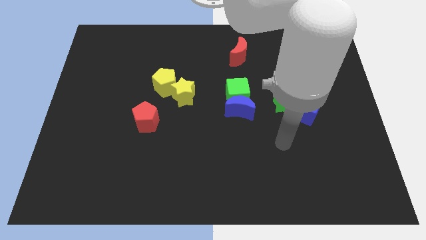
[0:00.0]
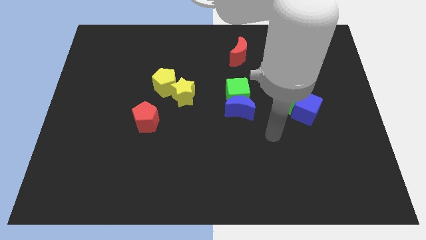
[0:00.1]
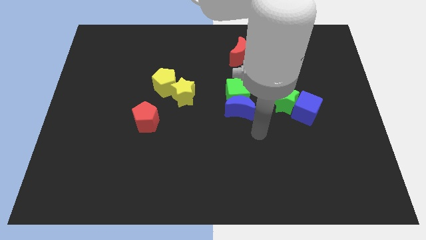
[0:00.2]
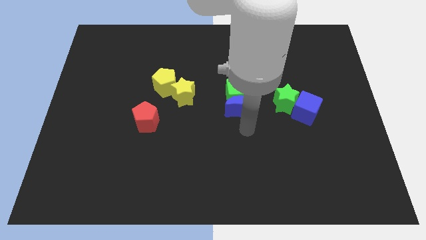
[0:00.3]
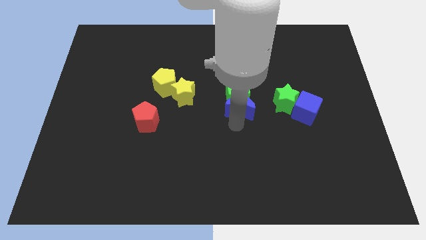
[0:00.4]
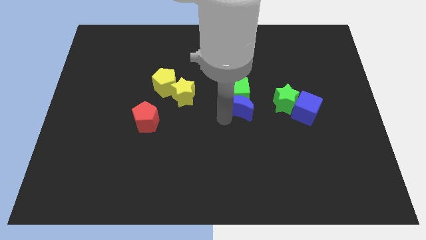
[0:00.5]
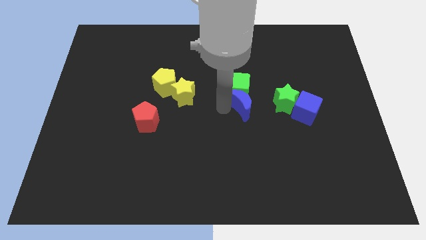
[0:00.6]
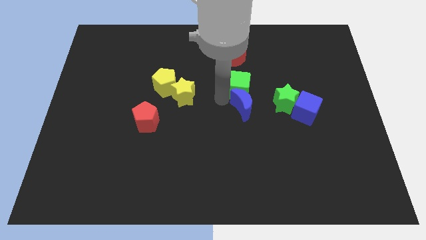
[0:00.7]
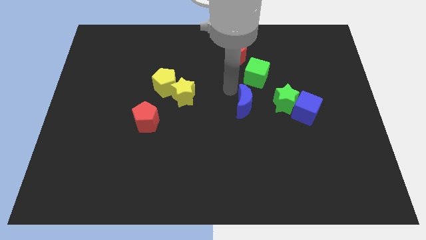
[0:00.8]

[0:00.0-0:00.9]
separate the blue moon from the green cube

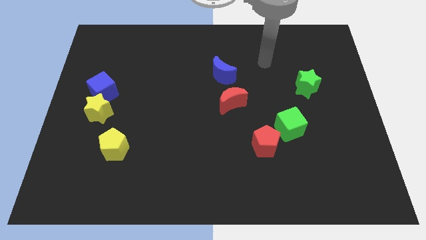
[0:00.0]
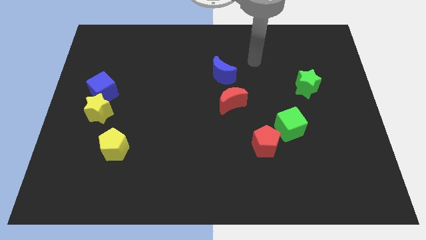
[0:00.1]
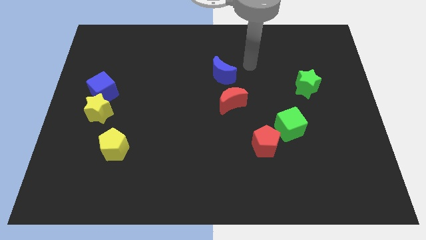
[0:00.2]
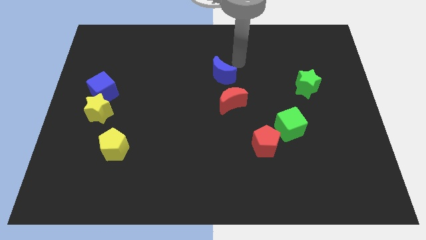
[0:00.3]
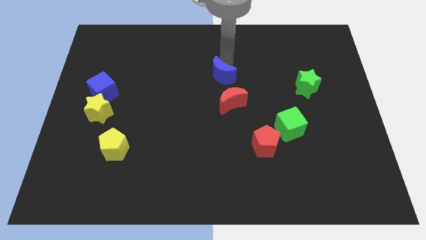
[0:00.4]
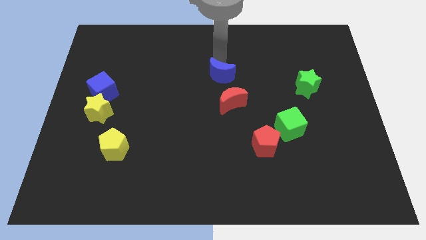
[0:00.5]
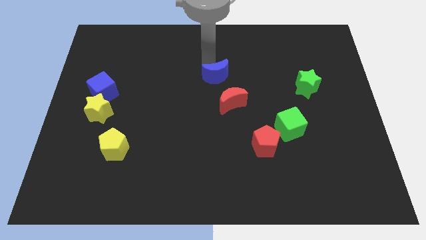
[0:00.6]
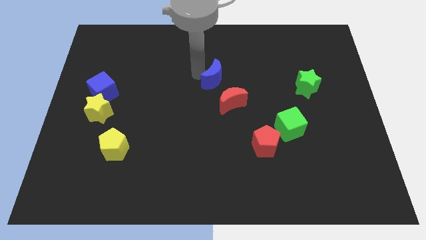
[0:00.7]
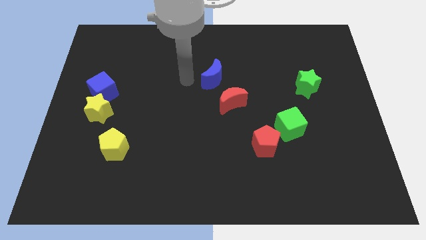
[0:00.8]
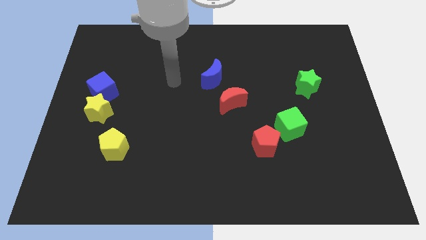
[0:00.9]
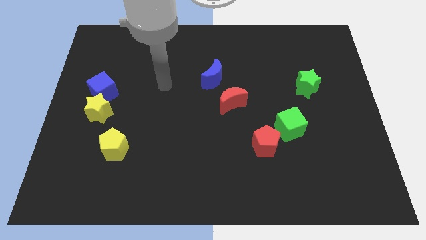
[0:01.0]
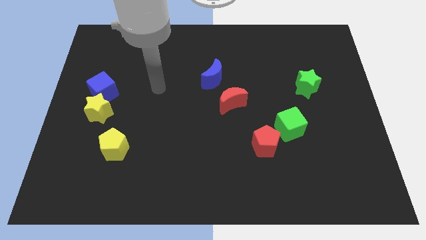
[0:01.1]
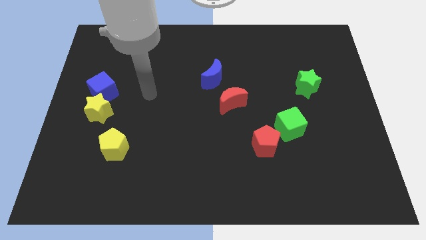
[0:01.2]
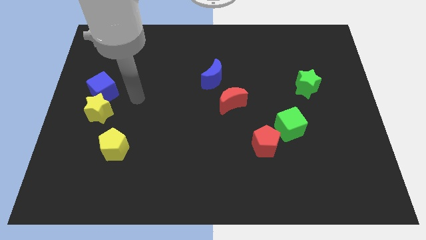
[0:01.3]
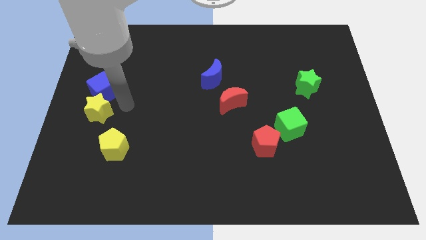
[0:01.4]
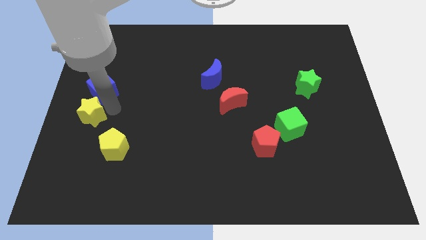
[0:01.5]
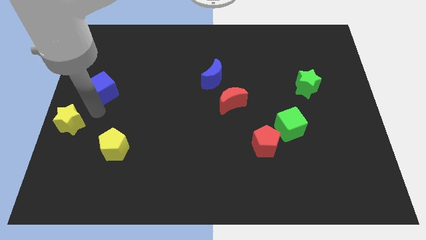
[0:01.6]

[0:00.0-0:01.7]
move the blue cube away from the yellow star

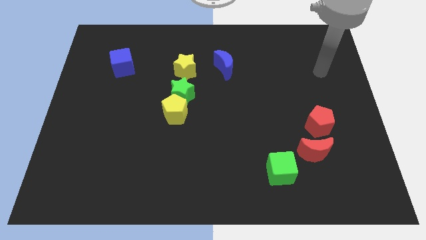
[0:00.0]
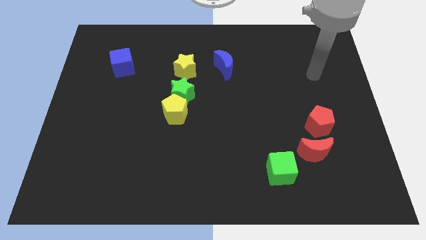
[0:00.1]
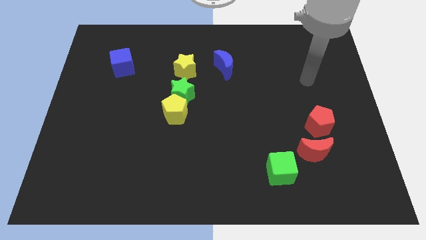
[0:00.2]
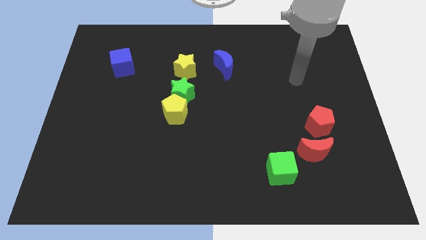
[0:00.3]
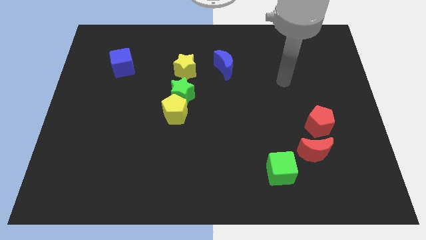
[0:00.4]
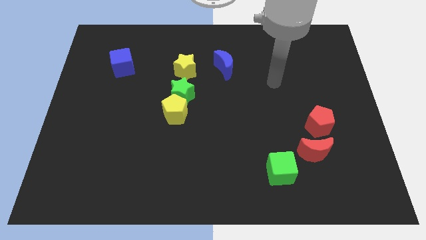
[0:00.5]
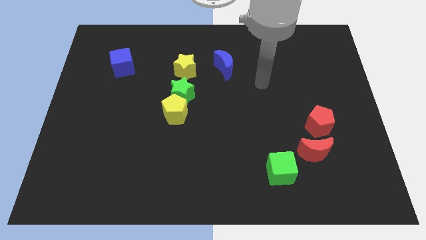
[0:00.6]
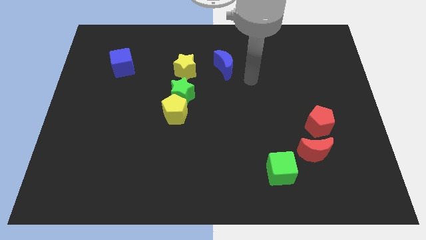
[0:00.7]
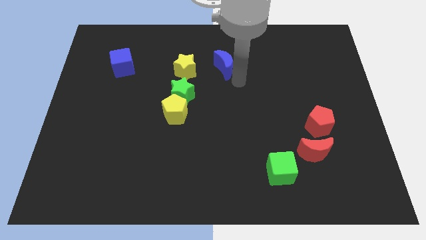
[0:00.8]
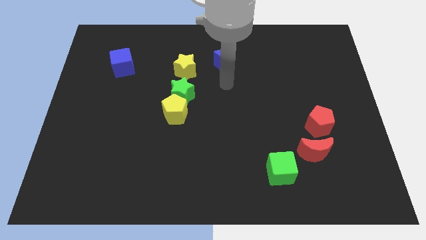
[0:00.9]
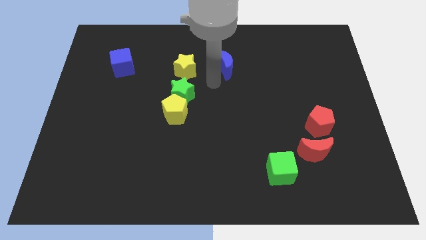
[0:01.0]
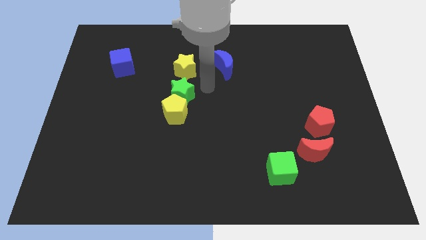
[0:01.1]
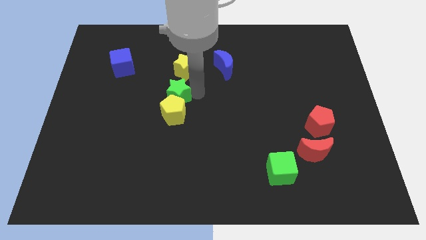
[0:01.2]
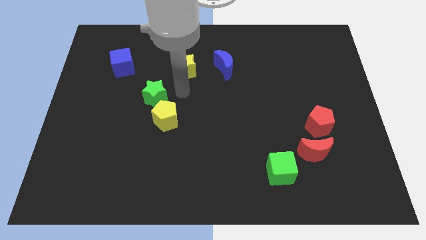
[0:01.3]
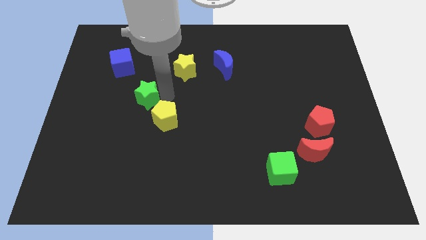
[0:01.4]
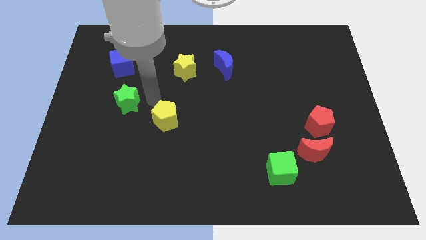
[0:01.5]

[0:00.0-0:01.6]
separate the yellow pentagon from the green star

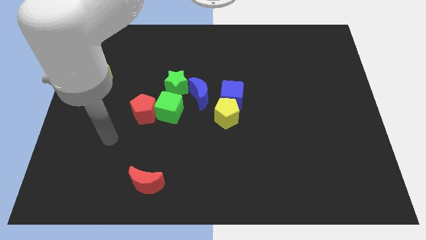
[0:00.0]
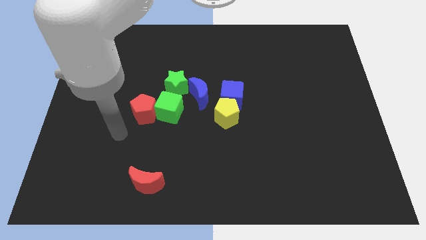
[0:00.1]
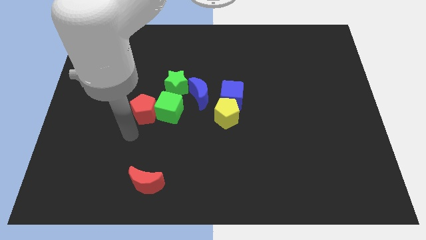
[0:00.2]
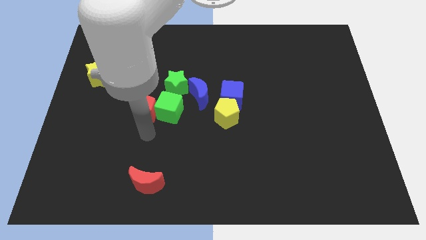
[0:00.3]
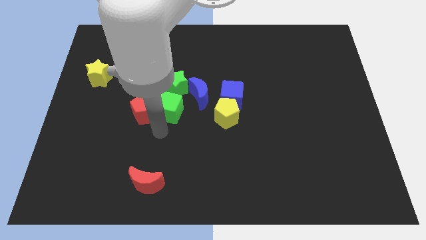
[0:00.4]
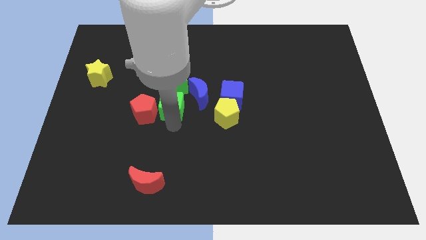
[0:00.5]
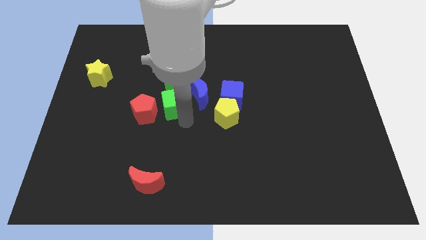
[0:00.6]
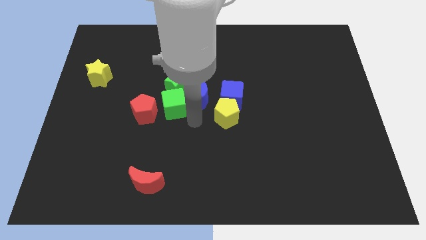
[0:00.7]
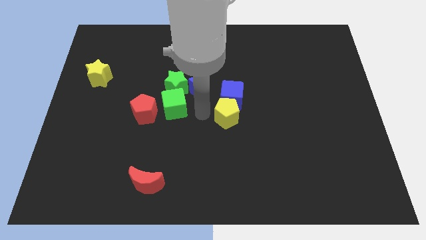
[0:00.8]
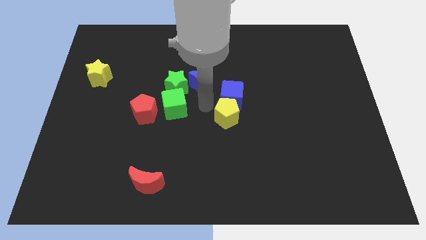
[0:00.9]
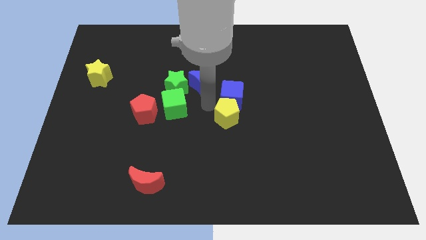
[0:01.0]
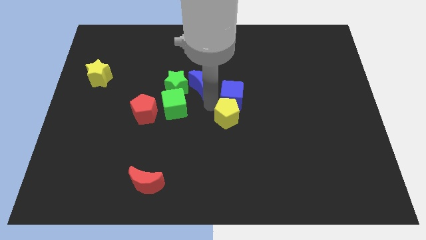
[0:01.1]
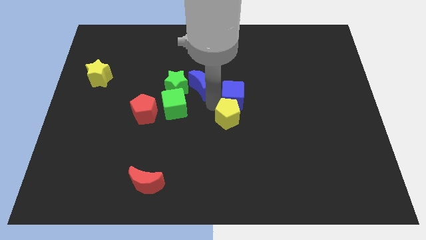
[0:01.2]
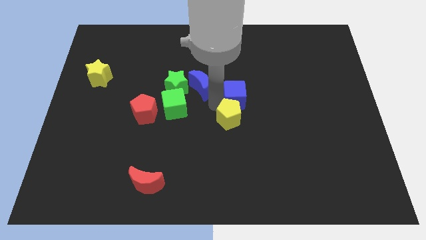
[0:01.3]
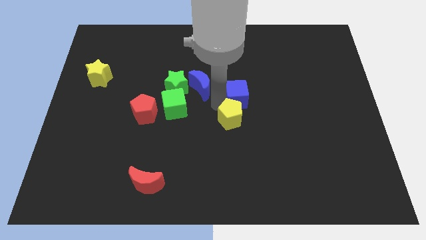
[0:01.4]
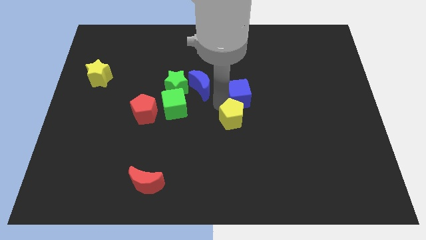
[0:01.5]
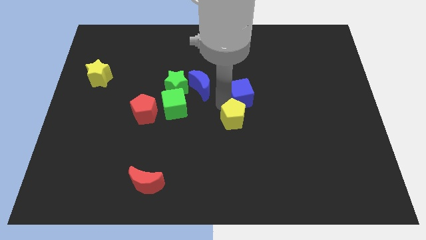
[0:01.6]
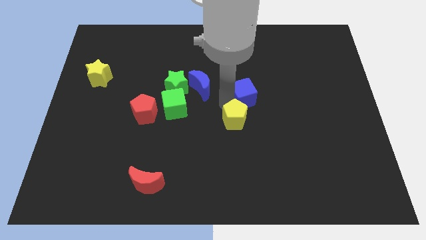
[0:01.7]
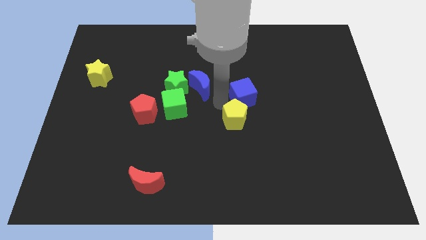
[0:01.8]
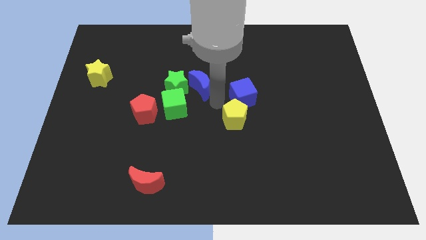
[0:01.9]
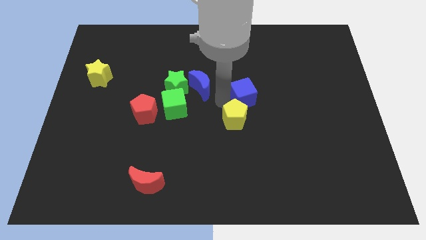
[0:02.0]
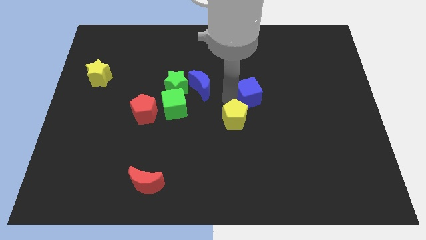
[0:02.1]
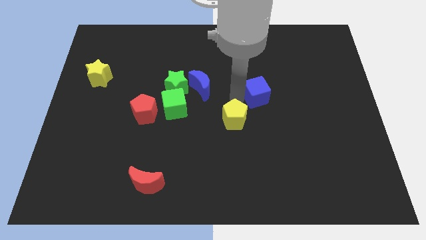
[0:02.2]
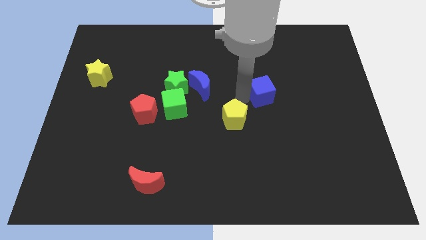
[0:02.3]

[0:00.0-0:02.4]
pull the blue cube apart from the yellow pentagon and blue moon

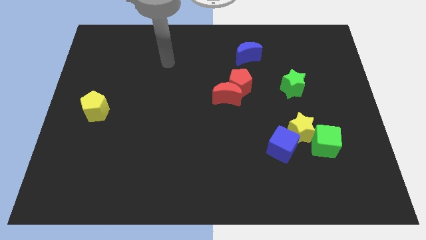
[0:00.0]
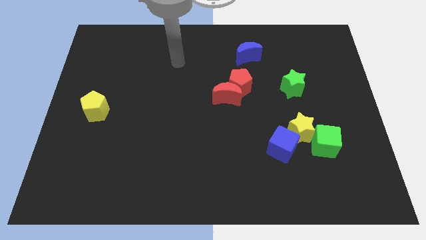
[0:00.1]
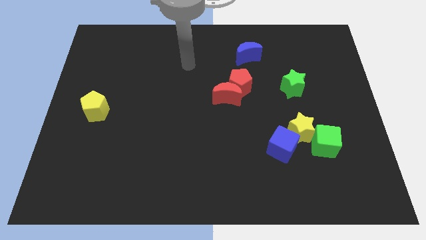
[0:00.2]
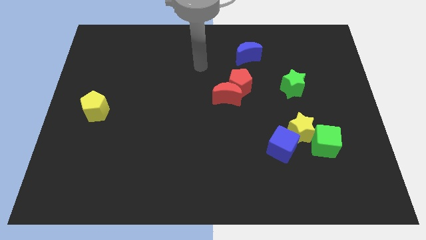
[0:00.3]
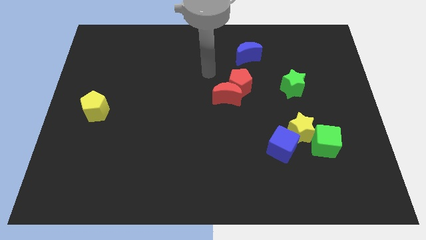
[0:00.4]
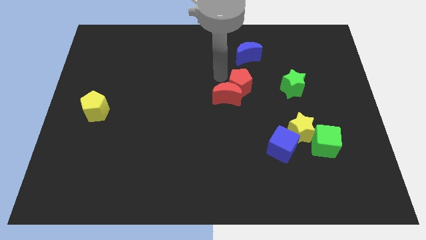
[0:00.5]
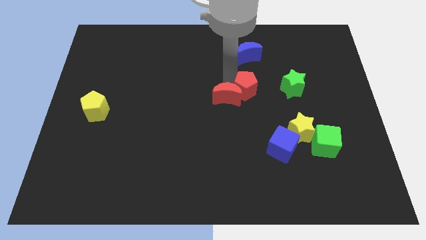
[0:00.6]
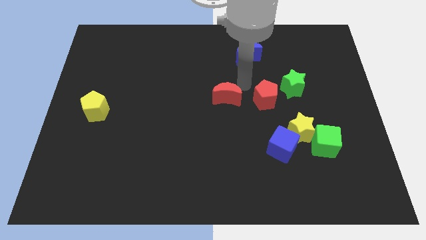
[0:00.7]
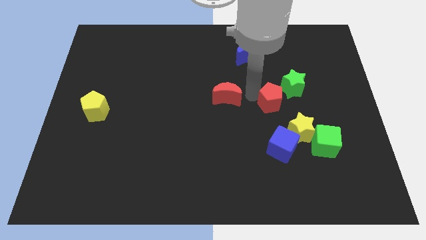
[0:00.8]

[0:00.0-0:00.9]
separate the red moon from the red pentagon

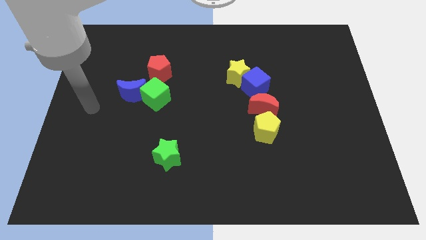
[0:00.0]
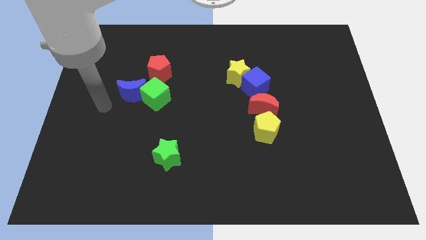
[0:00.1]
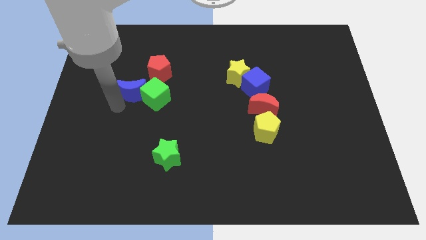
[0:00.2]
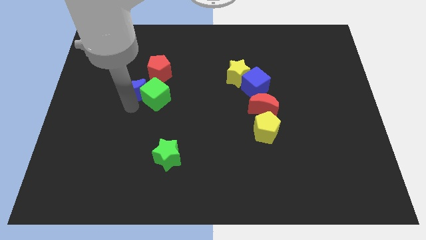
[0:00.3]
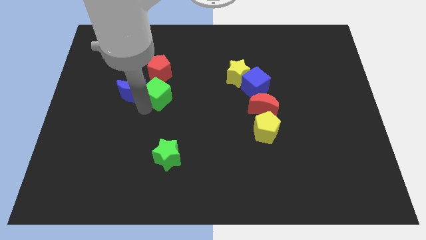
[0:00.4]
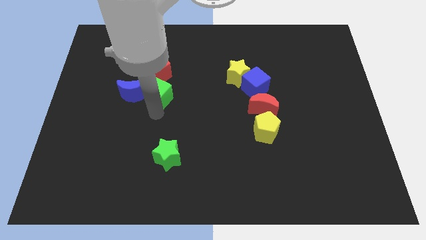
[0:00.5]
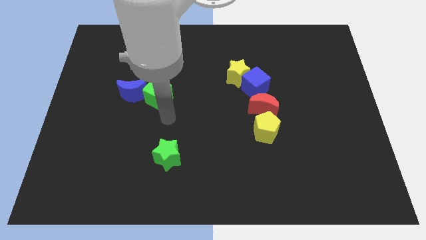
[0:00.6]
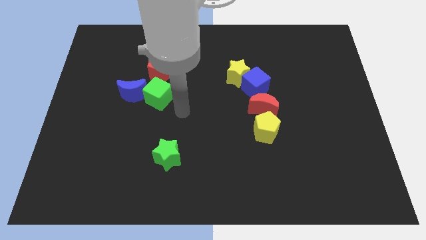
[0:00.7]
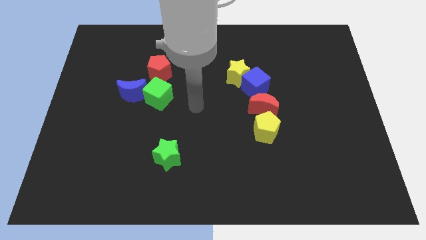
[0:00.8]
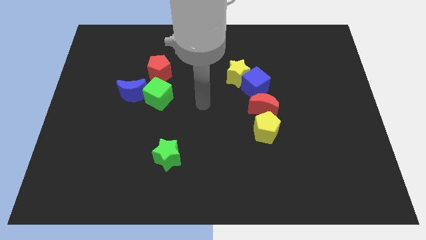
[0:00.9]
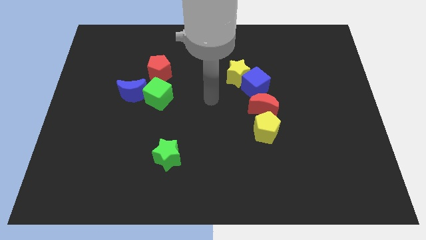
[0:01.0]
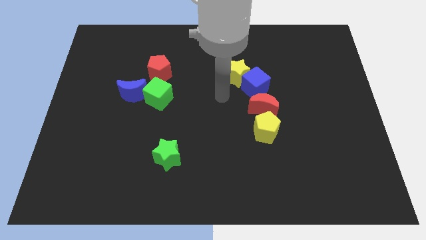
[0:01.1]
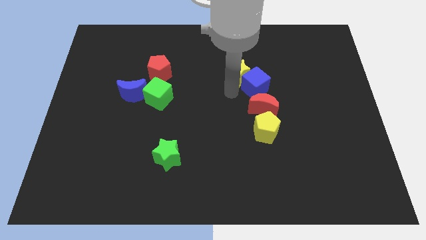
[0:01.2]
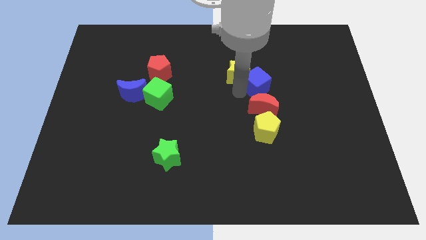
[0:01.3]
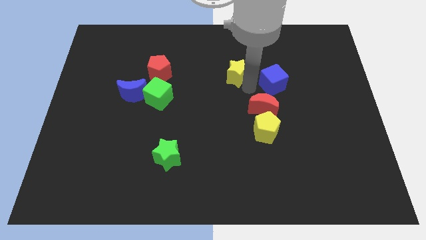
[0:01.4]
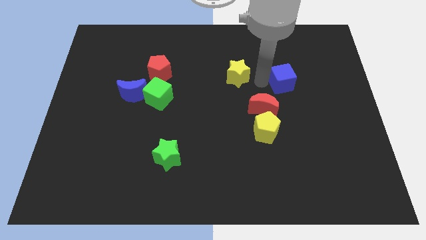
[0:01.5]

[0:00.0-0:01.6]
move the yellow star away from the blue cube

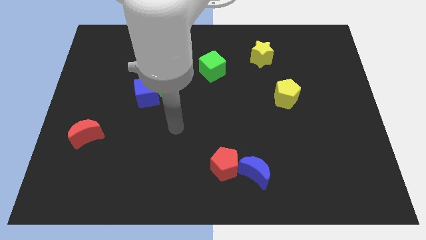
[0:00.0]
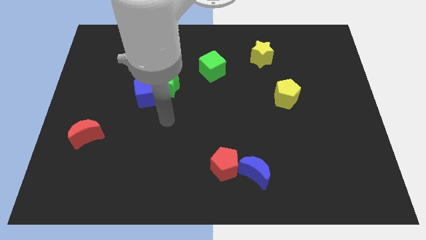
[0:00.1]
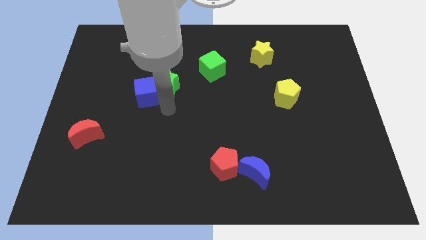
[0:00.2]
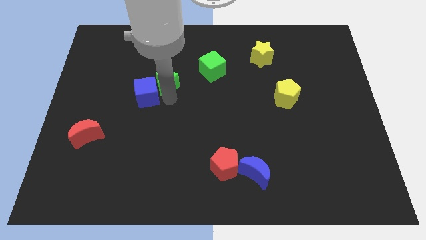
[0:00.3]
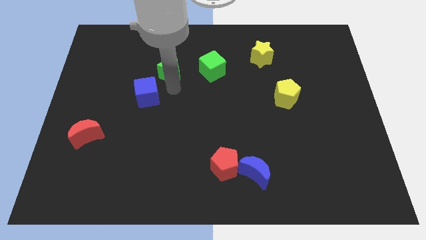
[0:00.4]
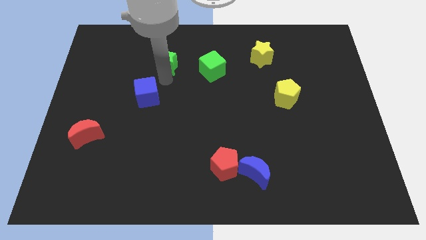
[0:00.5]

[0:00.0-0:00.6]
separate the blue cube from the green star
